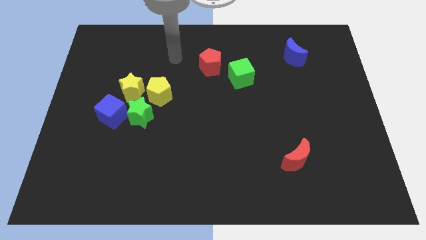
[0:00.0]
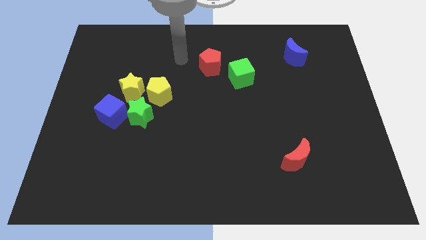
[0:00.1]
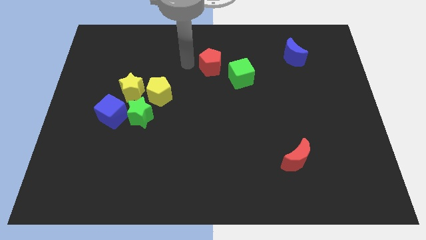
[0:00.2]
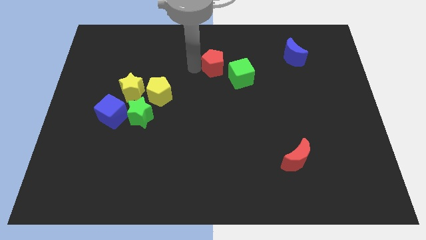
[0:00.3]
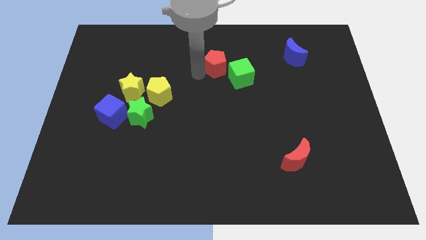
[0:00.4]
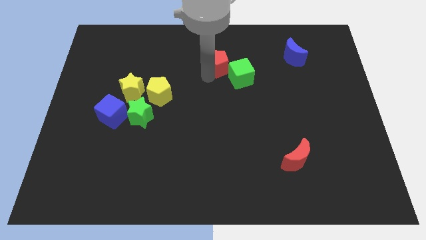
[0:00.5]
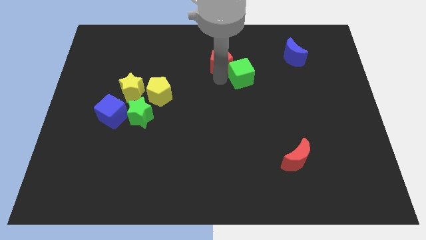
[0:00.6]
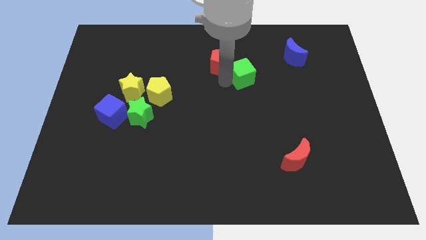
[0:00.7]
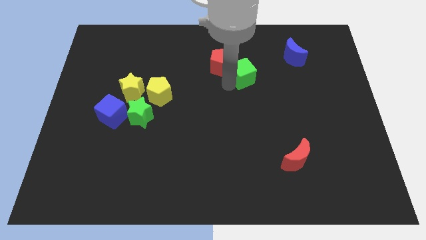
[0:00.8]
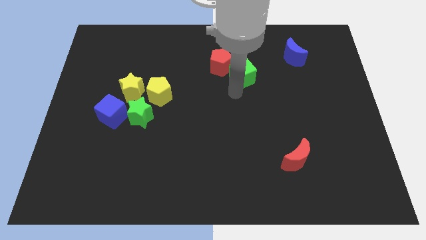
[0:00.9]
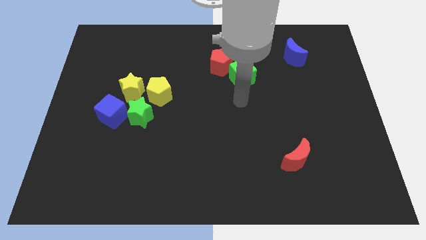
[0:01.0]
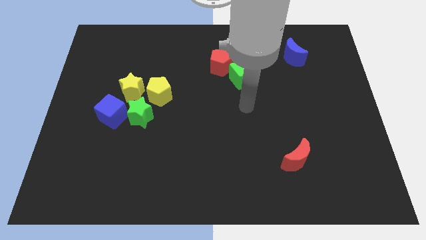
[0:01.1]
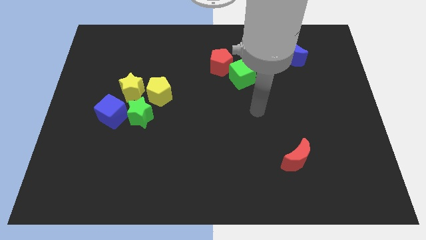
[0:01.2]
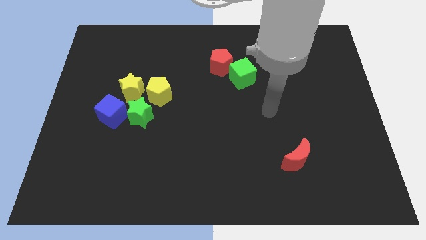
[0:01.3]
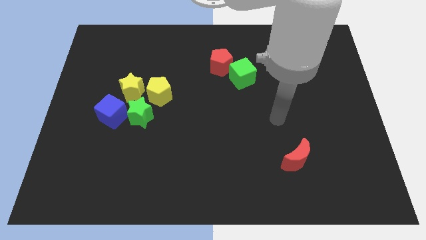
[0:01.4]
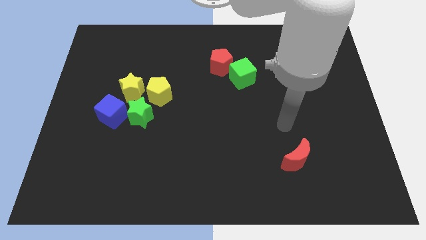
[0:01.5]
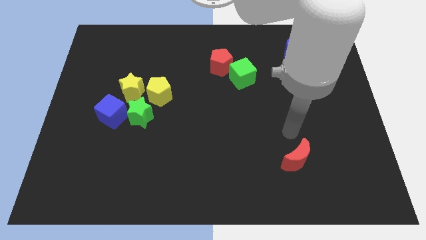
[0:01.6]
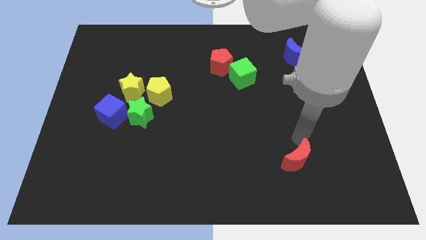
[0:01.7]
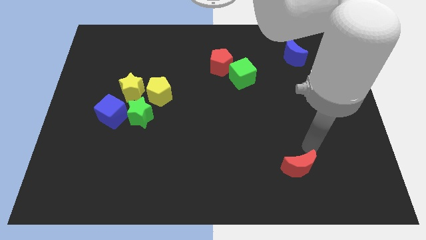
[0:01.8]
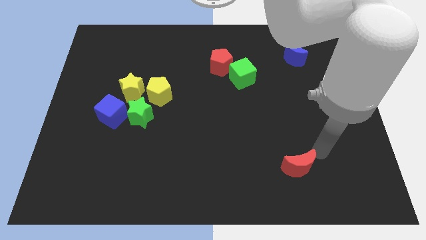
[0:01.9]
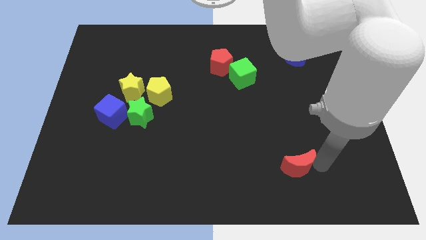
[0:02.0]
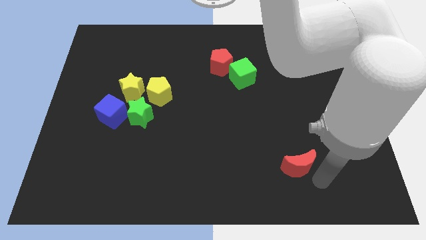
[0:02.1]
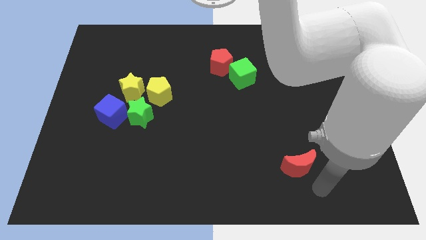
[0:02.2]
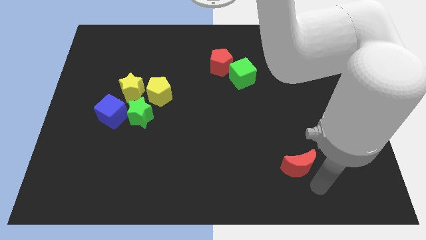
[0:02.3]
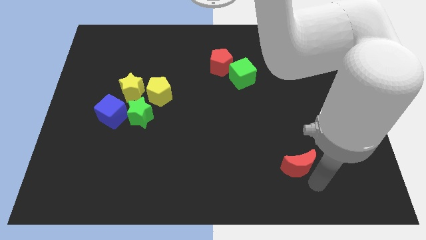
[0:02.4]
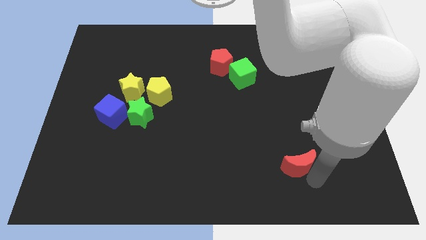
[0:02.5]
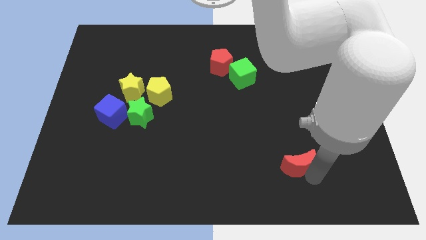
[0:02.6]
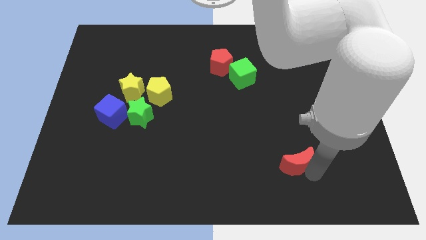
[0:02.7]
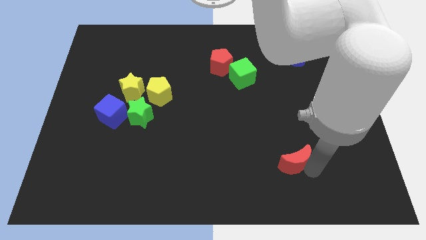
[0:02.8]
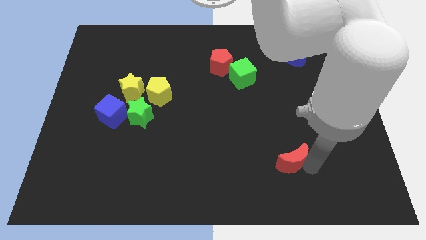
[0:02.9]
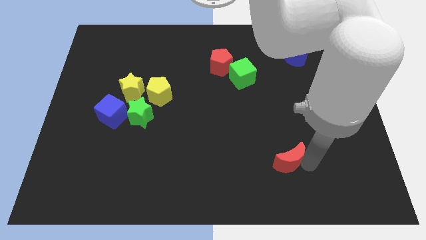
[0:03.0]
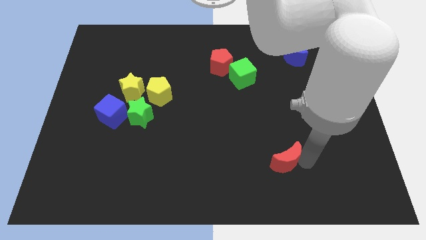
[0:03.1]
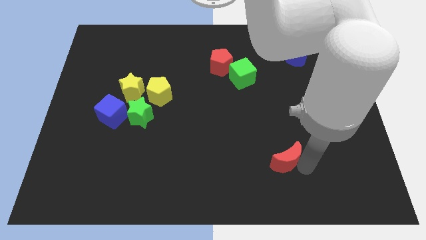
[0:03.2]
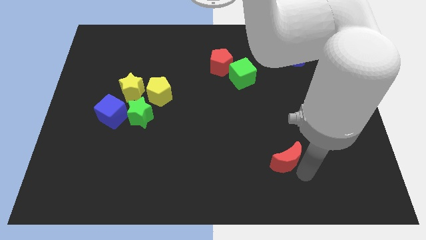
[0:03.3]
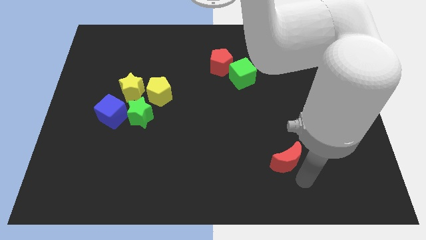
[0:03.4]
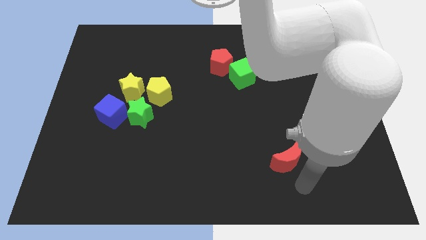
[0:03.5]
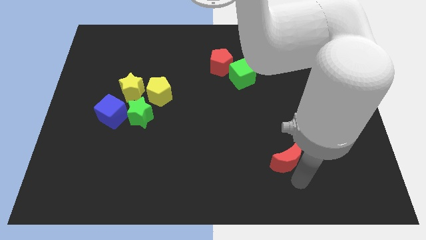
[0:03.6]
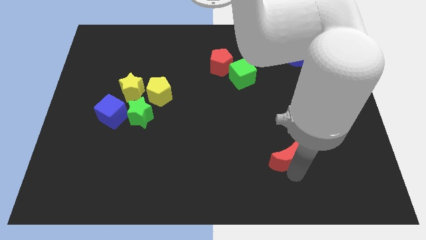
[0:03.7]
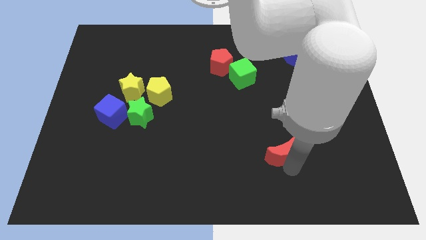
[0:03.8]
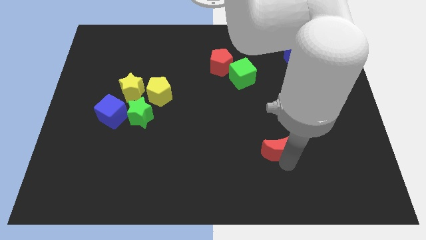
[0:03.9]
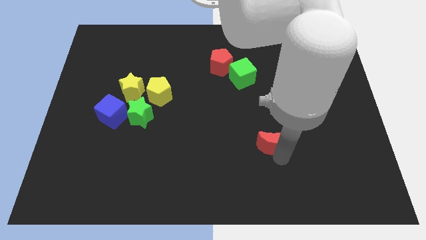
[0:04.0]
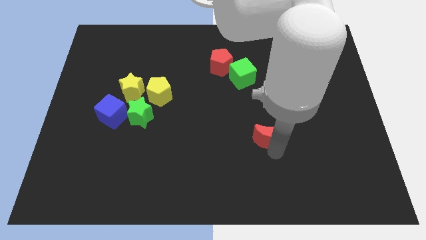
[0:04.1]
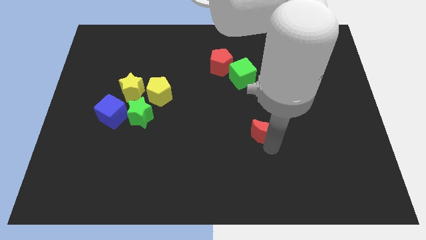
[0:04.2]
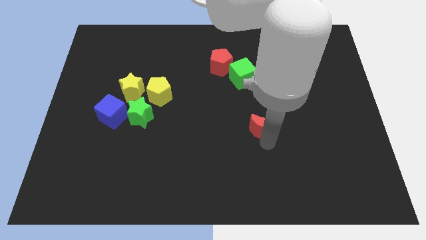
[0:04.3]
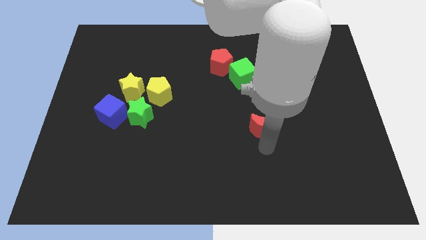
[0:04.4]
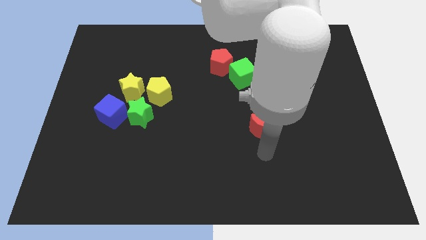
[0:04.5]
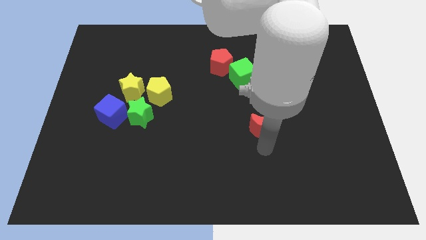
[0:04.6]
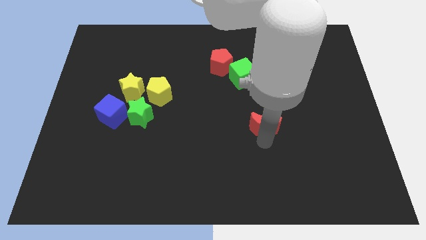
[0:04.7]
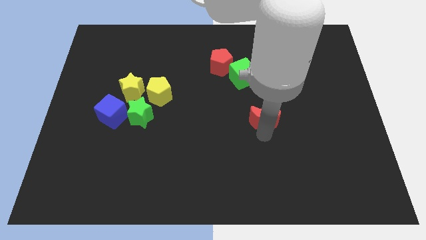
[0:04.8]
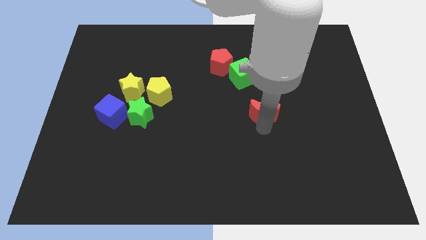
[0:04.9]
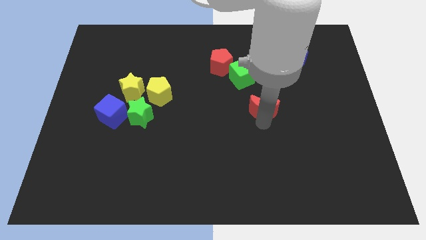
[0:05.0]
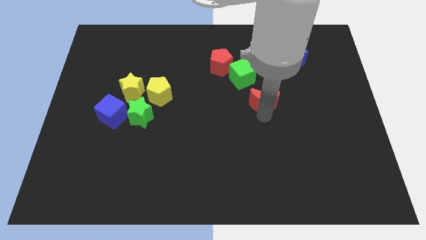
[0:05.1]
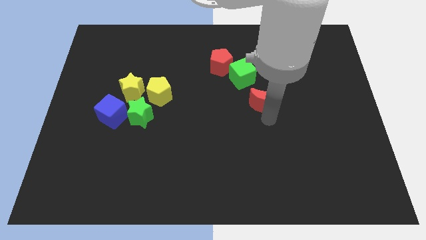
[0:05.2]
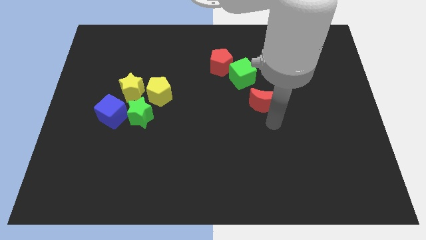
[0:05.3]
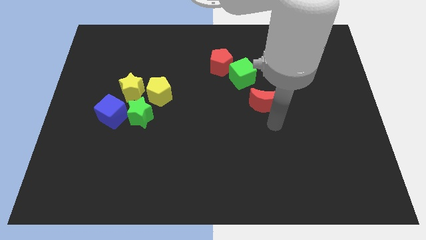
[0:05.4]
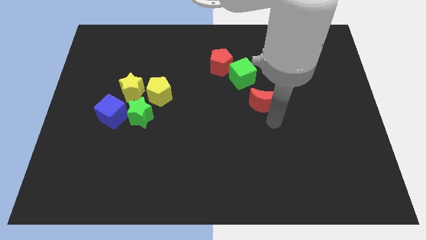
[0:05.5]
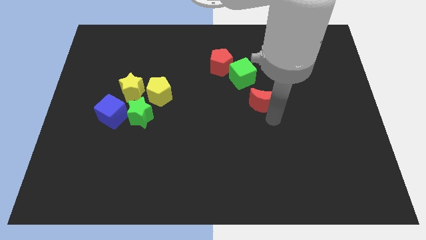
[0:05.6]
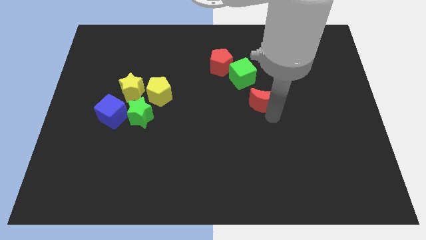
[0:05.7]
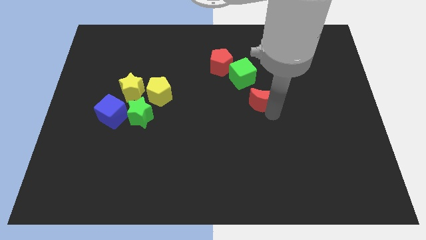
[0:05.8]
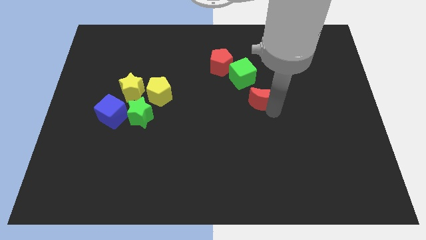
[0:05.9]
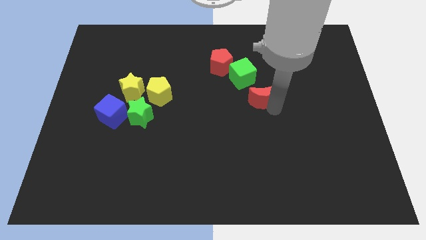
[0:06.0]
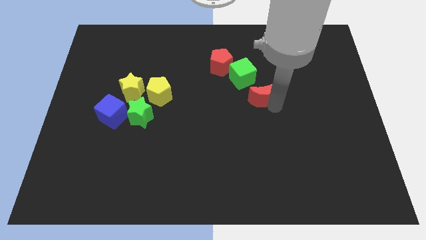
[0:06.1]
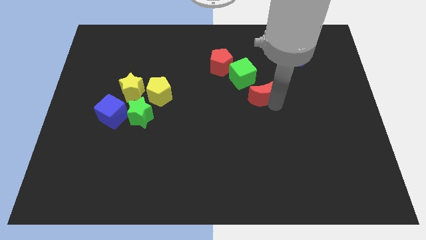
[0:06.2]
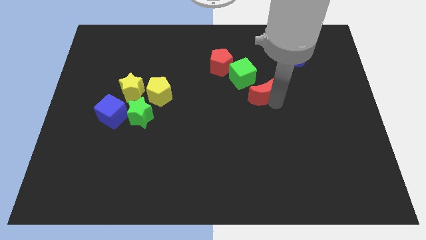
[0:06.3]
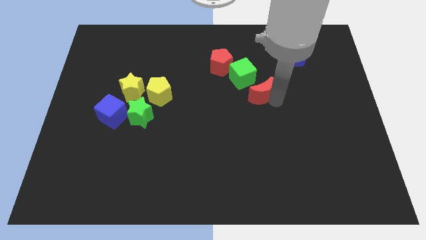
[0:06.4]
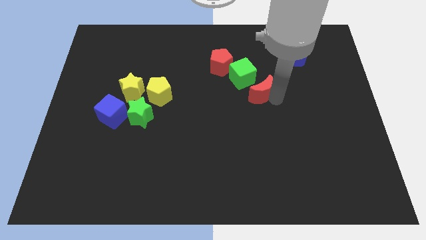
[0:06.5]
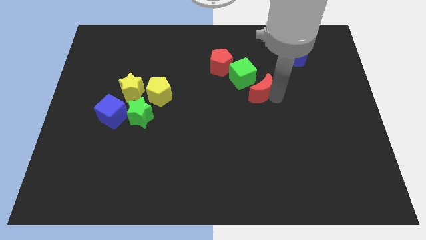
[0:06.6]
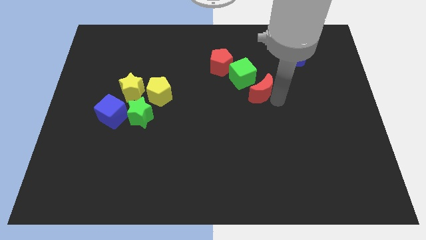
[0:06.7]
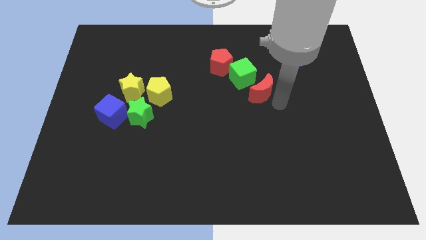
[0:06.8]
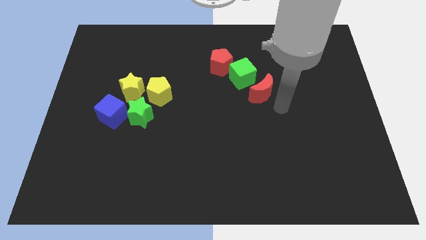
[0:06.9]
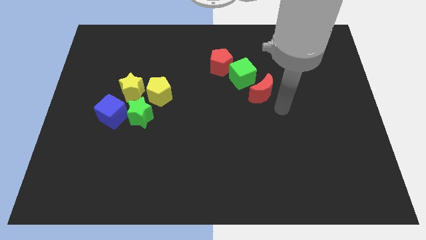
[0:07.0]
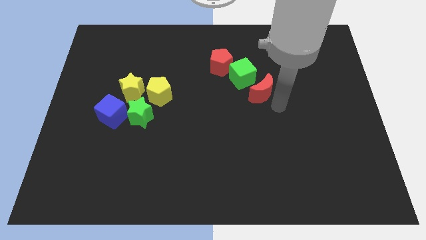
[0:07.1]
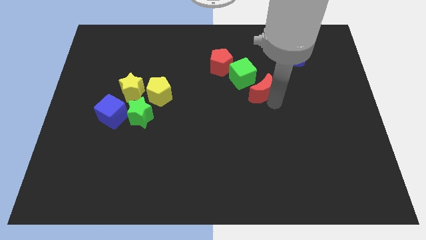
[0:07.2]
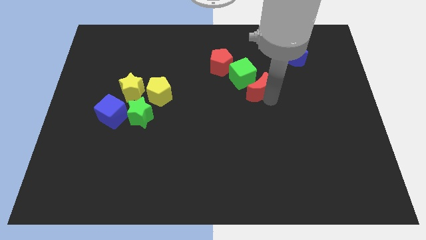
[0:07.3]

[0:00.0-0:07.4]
push the red moon towards the green cube
